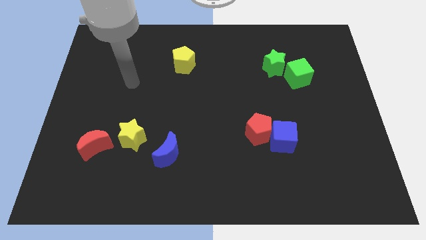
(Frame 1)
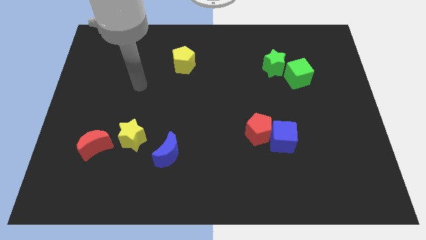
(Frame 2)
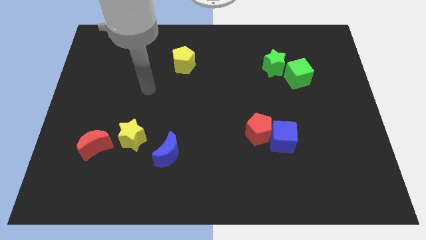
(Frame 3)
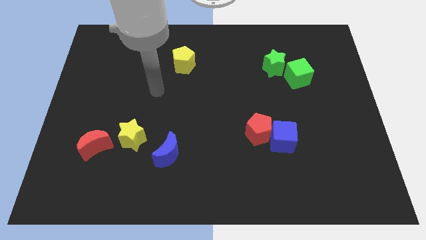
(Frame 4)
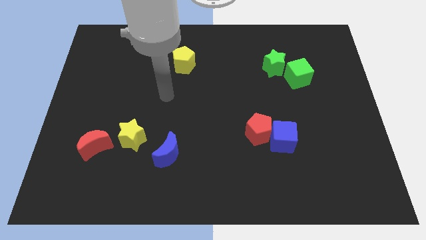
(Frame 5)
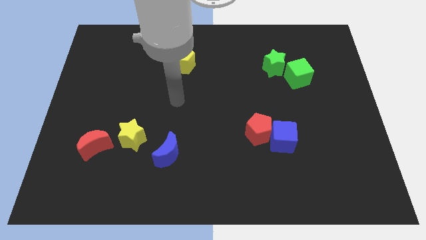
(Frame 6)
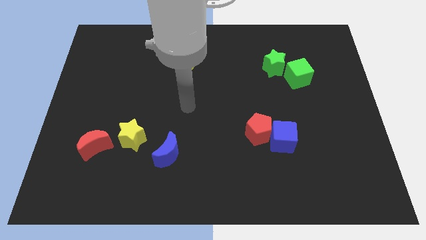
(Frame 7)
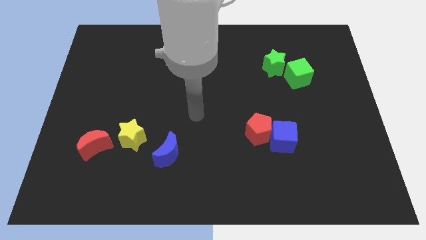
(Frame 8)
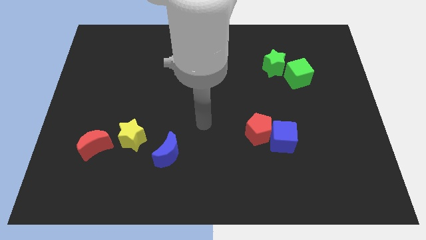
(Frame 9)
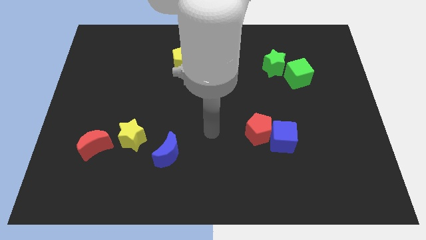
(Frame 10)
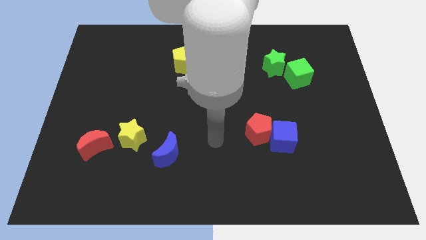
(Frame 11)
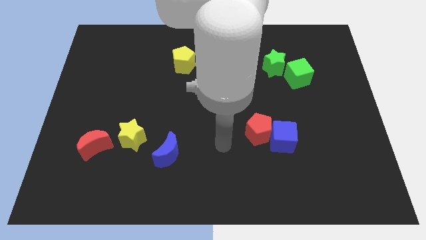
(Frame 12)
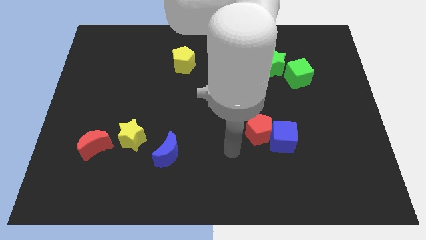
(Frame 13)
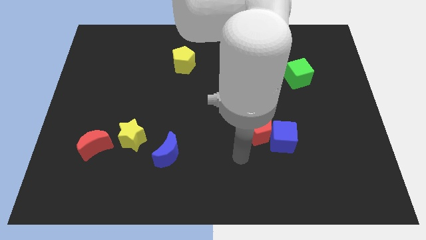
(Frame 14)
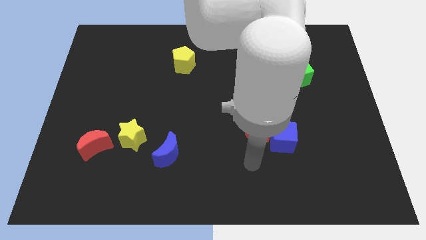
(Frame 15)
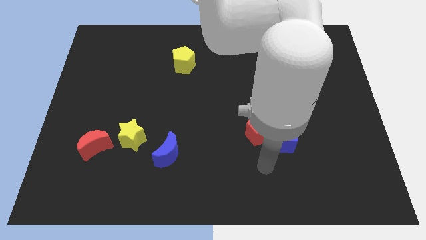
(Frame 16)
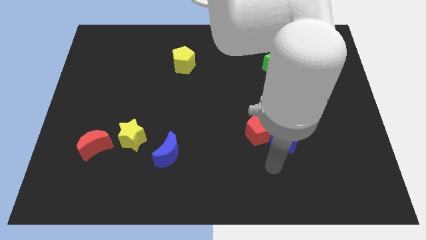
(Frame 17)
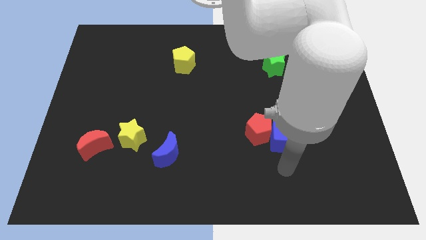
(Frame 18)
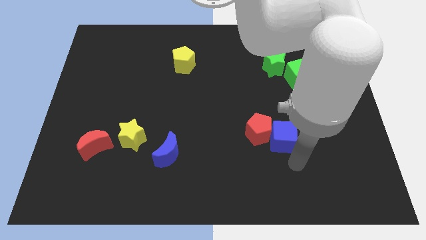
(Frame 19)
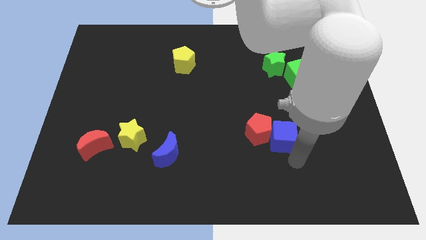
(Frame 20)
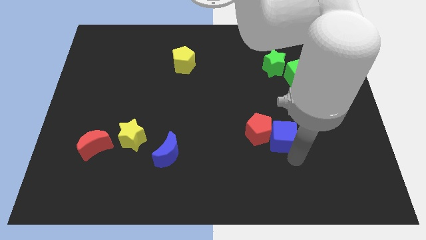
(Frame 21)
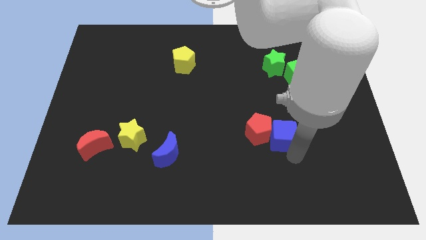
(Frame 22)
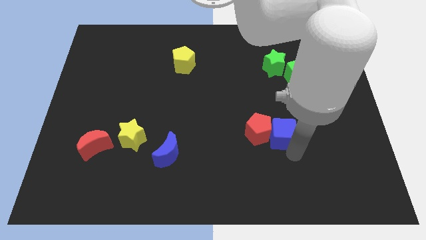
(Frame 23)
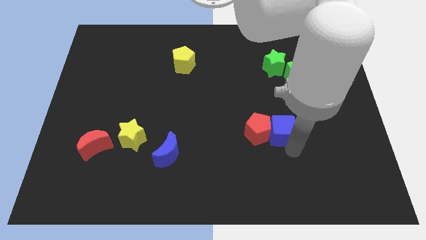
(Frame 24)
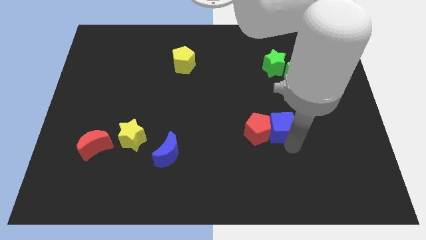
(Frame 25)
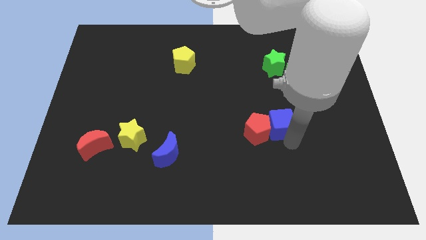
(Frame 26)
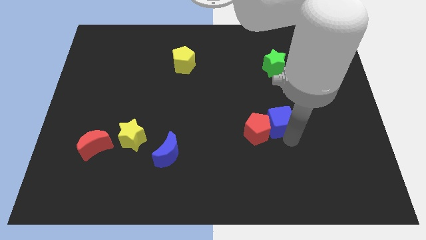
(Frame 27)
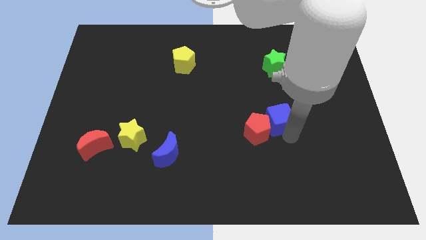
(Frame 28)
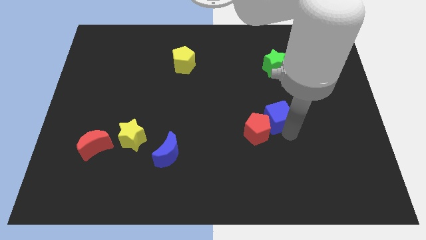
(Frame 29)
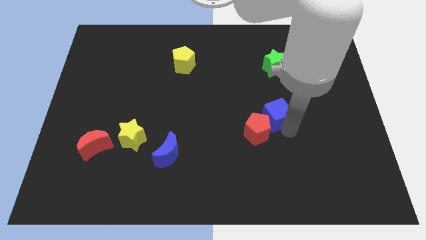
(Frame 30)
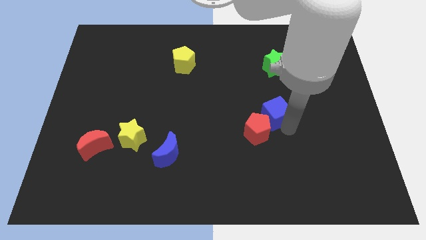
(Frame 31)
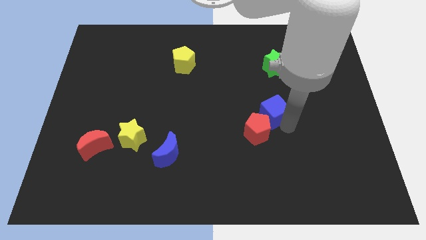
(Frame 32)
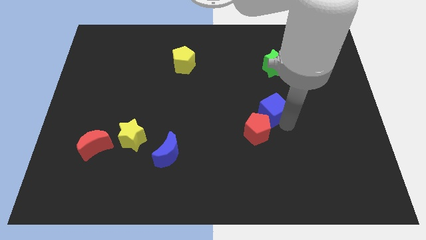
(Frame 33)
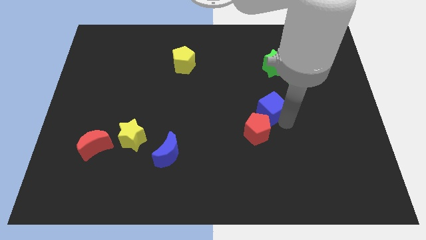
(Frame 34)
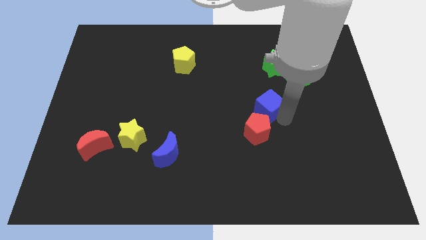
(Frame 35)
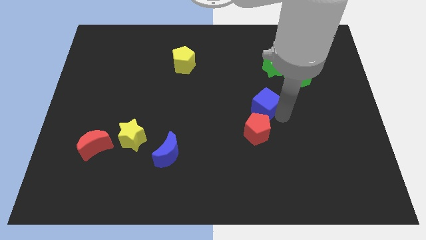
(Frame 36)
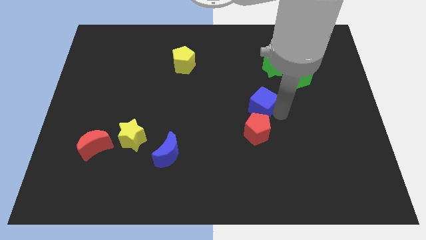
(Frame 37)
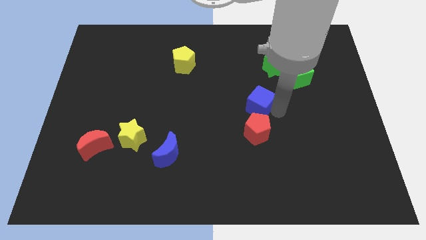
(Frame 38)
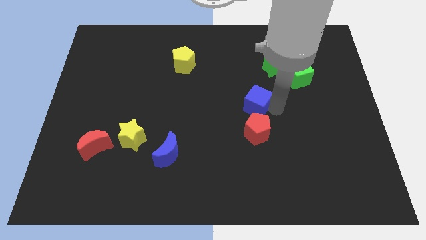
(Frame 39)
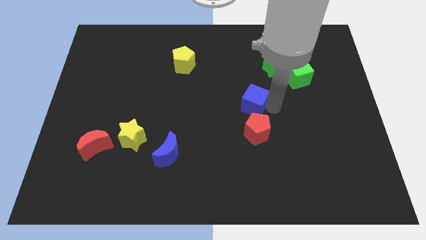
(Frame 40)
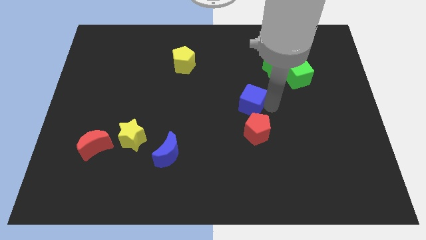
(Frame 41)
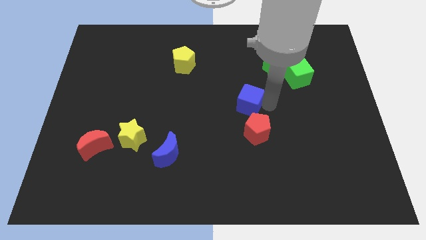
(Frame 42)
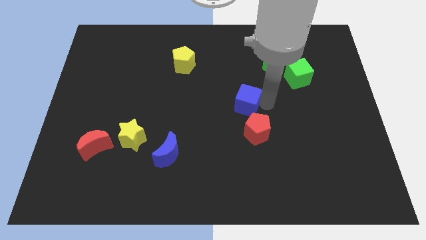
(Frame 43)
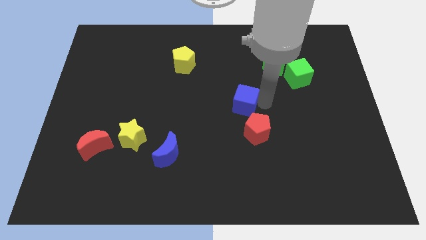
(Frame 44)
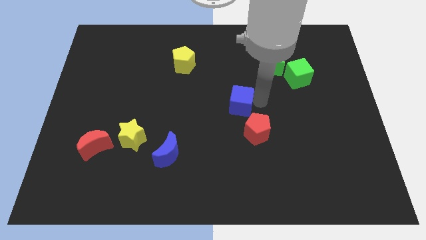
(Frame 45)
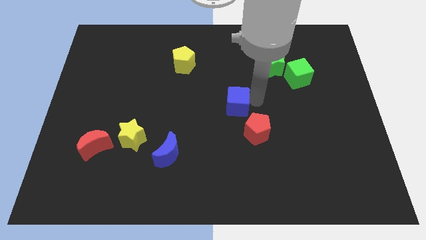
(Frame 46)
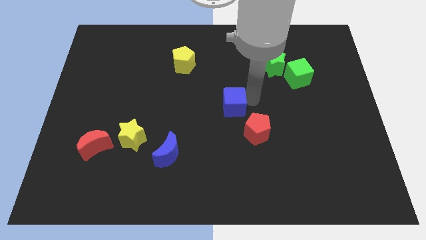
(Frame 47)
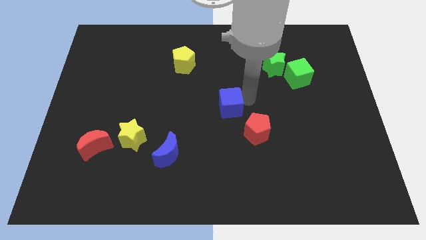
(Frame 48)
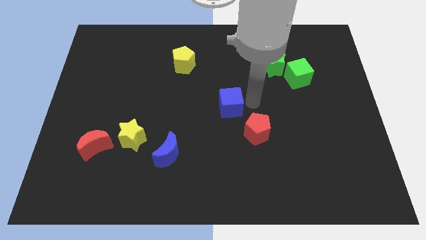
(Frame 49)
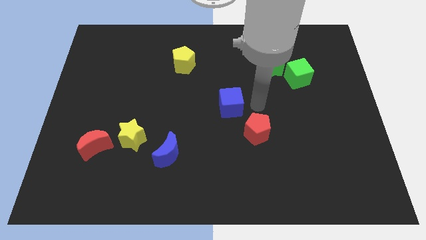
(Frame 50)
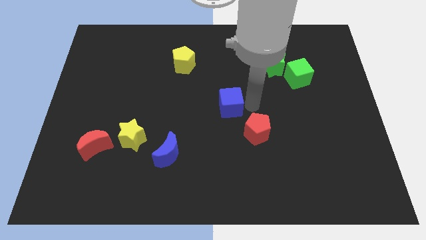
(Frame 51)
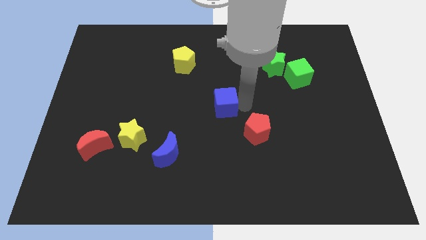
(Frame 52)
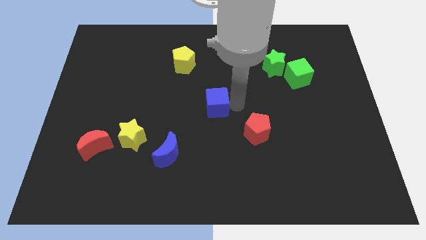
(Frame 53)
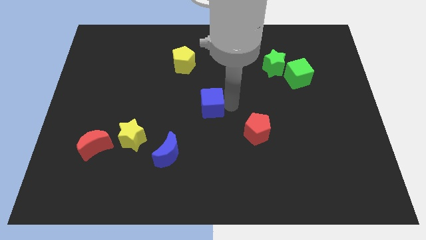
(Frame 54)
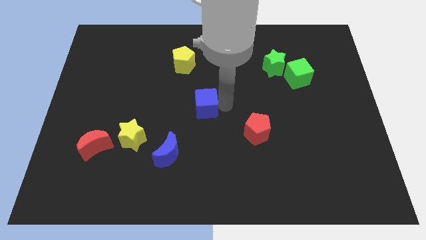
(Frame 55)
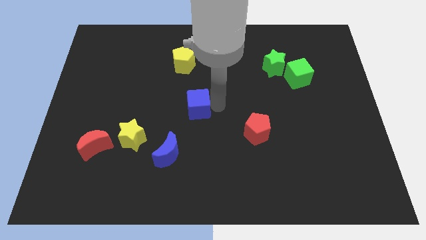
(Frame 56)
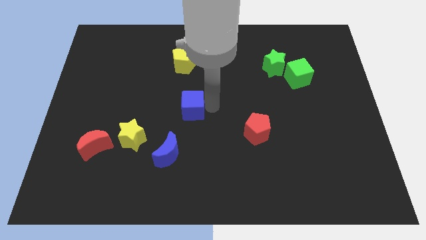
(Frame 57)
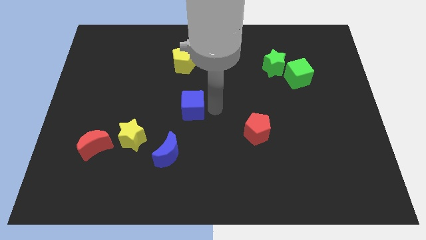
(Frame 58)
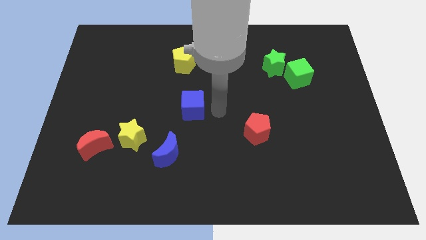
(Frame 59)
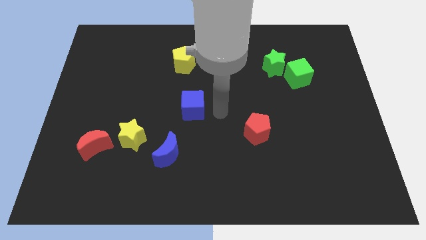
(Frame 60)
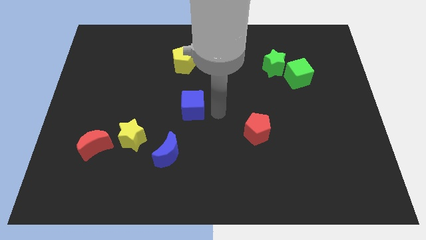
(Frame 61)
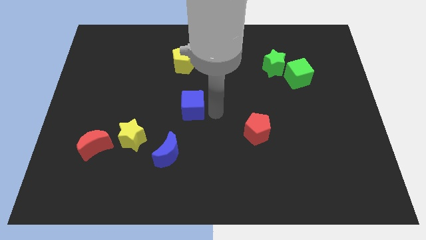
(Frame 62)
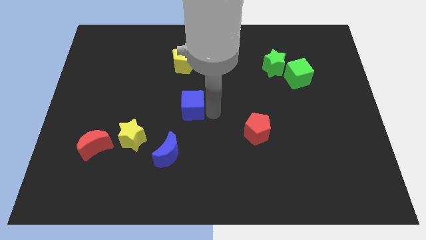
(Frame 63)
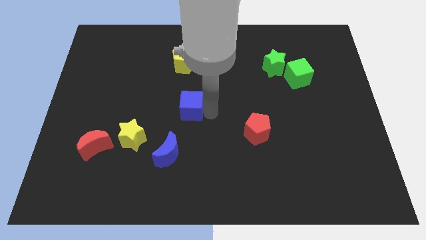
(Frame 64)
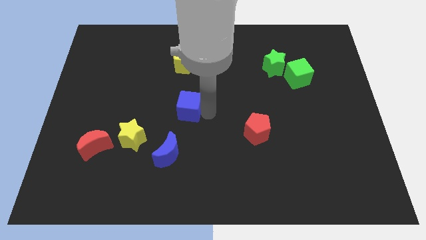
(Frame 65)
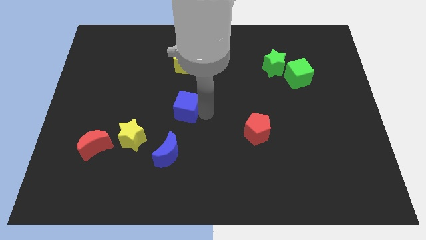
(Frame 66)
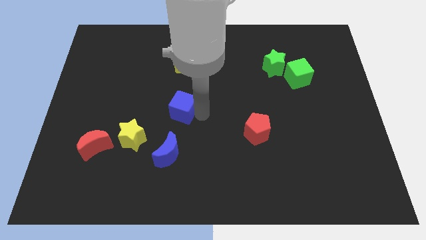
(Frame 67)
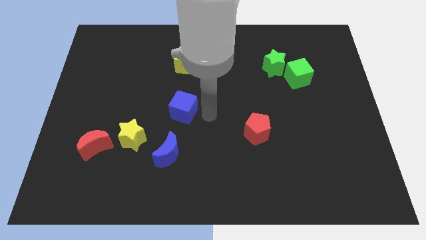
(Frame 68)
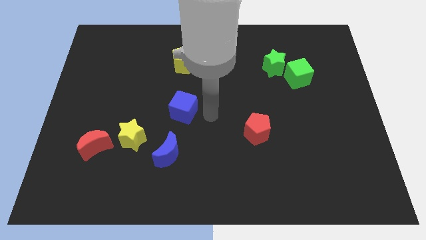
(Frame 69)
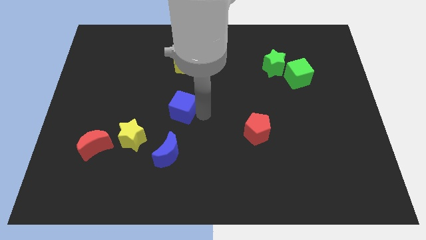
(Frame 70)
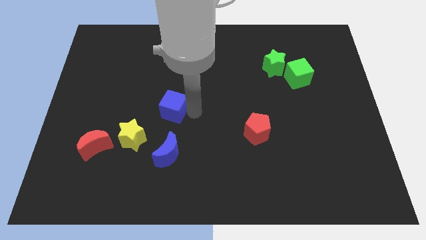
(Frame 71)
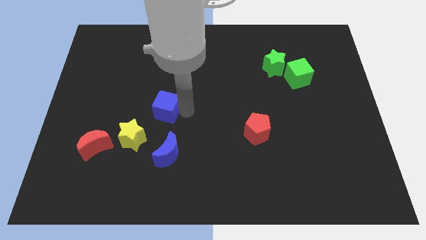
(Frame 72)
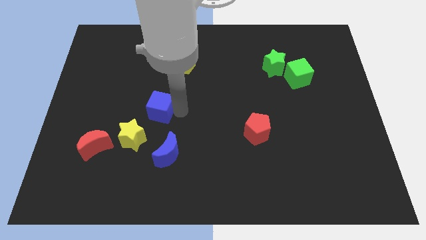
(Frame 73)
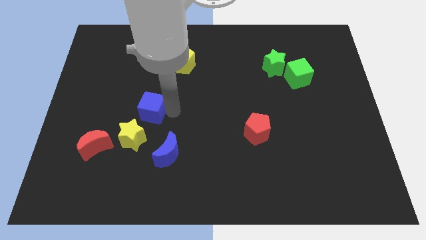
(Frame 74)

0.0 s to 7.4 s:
put the blue cube above the yellow star
